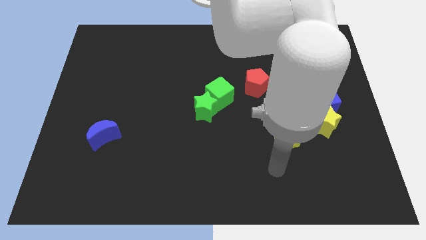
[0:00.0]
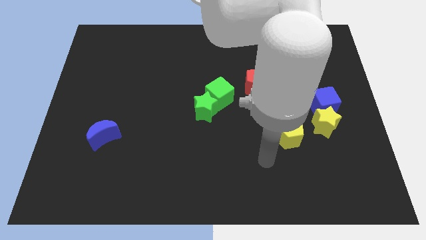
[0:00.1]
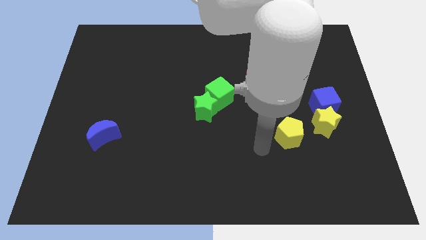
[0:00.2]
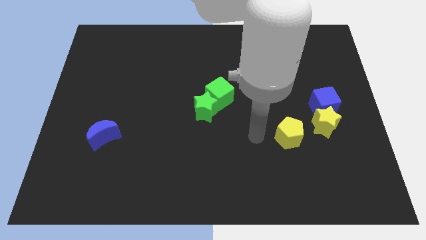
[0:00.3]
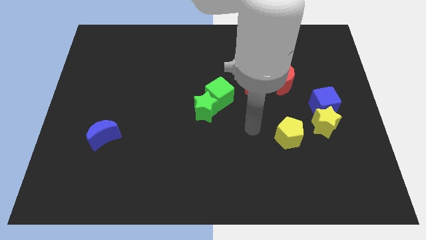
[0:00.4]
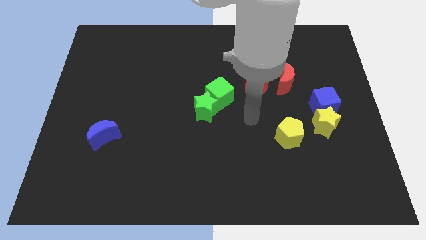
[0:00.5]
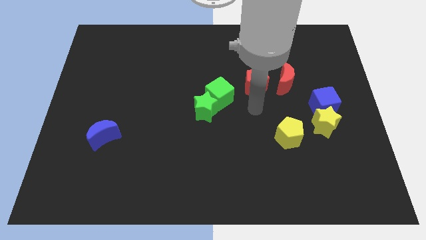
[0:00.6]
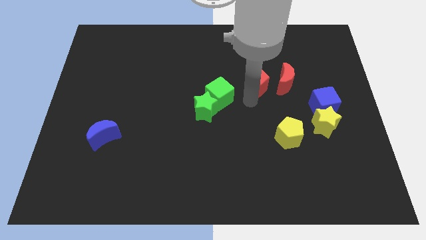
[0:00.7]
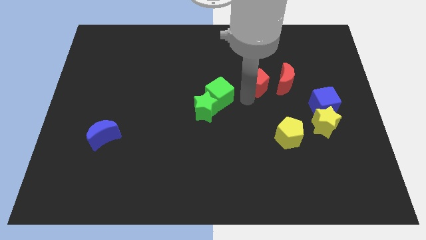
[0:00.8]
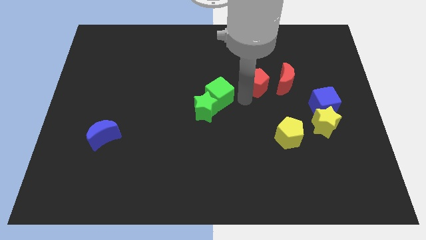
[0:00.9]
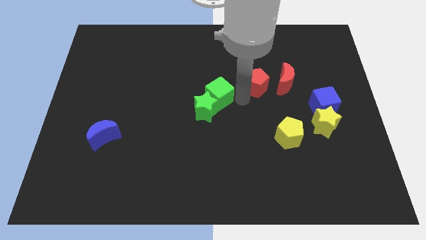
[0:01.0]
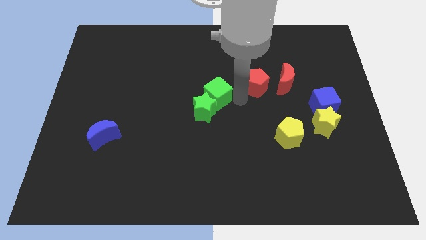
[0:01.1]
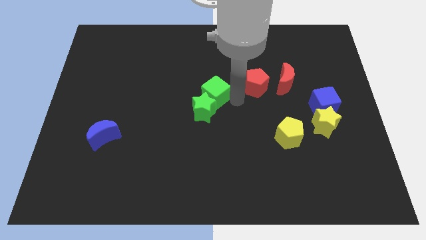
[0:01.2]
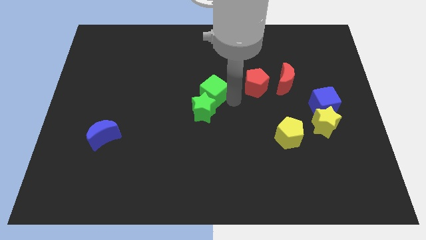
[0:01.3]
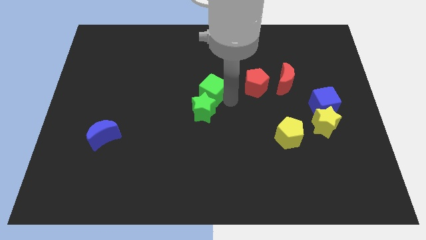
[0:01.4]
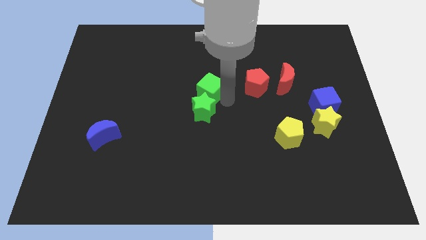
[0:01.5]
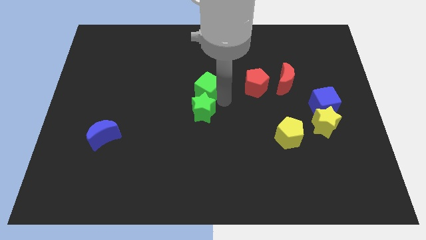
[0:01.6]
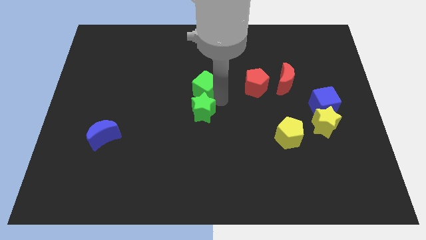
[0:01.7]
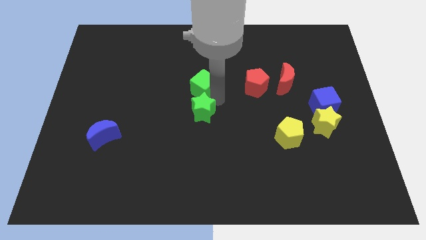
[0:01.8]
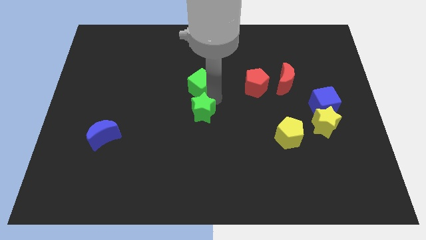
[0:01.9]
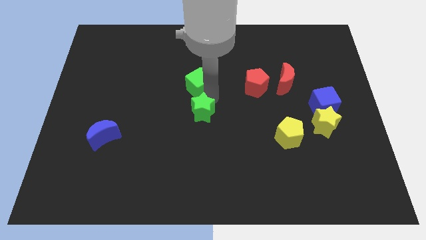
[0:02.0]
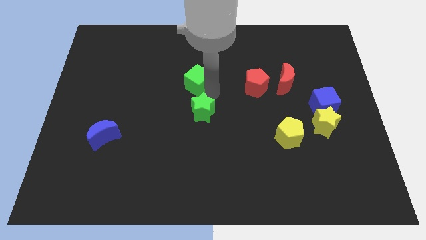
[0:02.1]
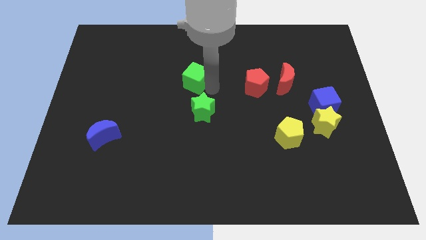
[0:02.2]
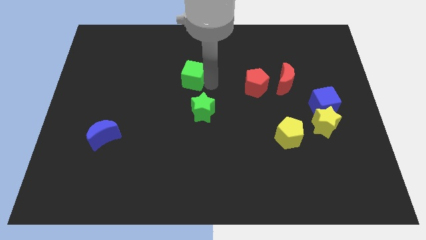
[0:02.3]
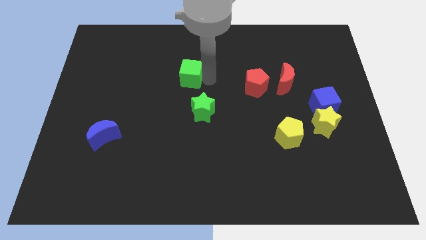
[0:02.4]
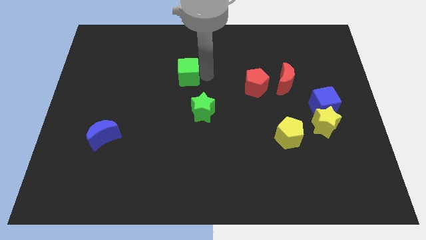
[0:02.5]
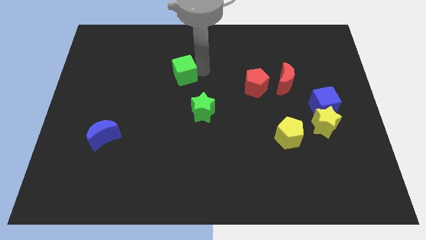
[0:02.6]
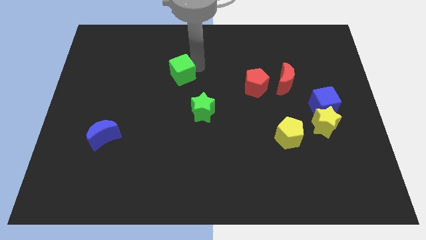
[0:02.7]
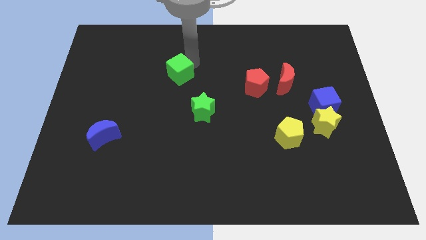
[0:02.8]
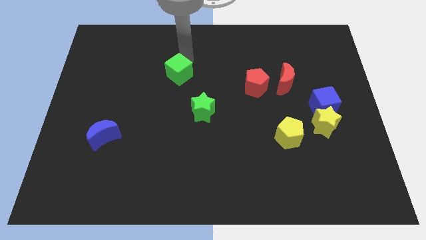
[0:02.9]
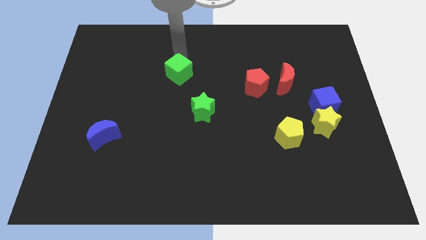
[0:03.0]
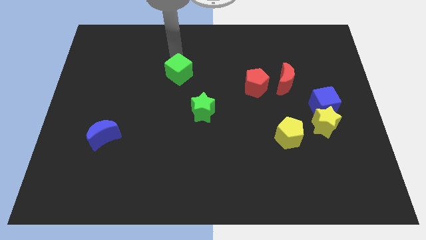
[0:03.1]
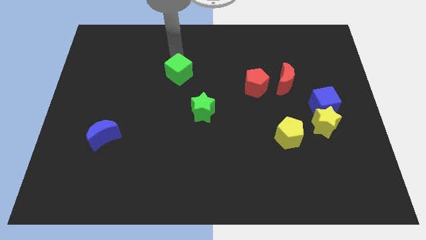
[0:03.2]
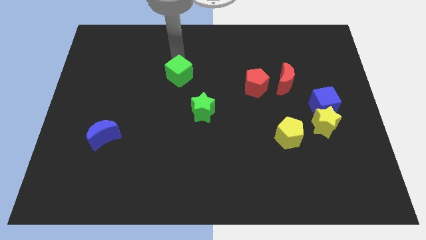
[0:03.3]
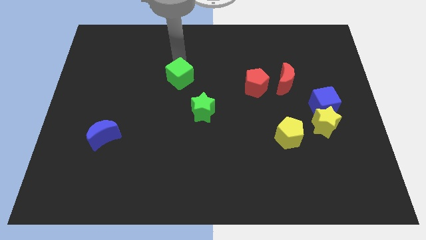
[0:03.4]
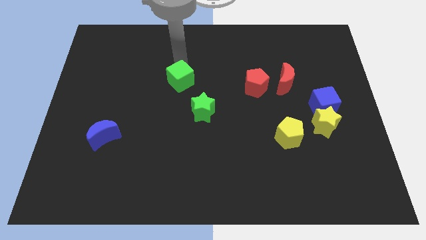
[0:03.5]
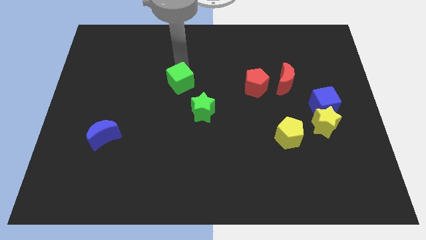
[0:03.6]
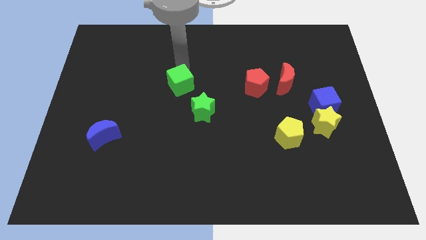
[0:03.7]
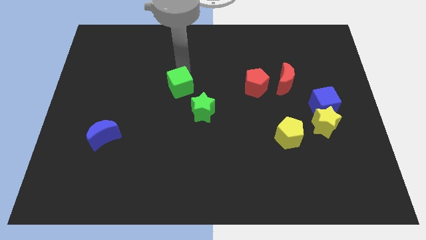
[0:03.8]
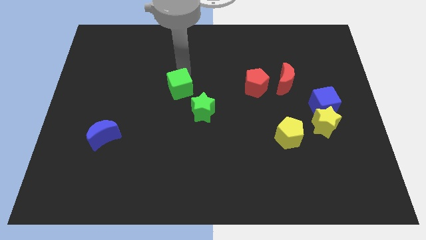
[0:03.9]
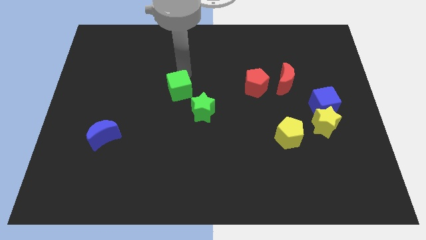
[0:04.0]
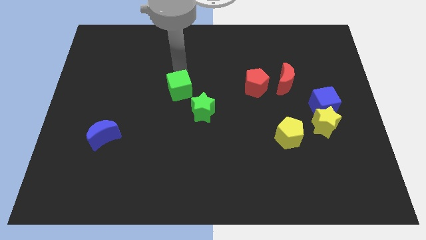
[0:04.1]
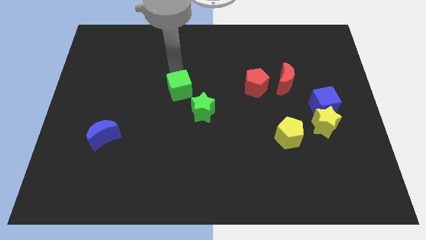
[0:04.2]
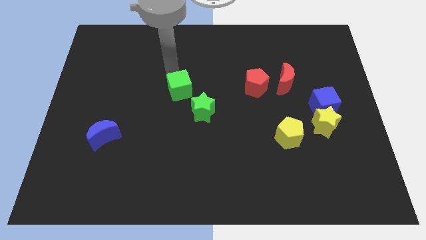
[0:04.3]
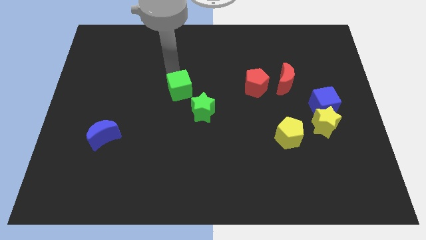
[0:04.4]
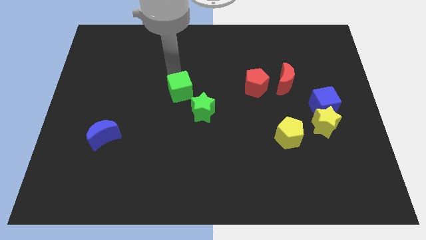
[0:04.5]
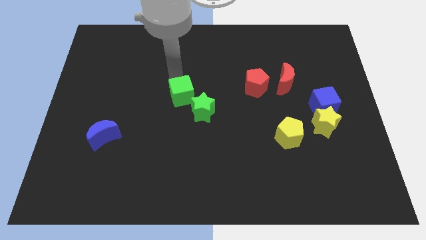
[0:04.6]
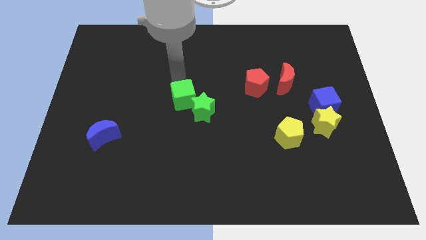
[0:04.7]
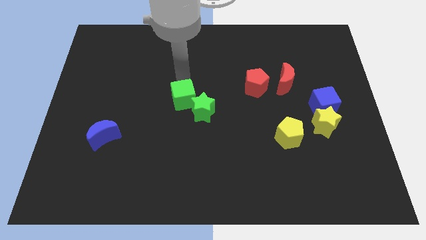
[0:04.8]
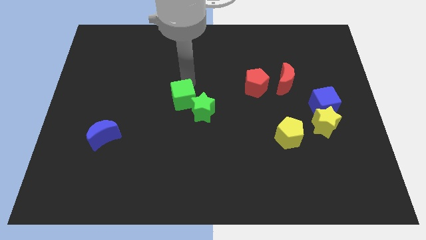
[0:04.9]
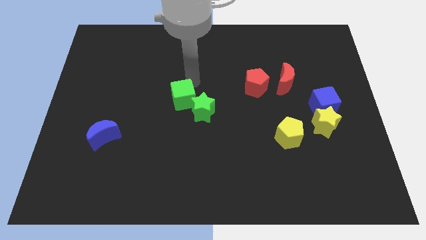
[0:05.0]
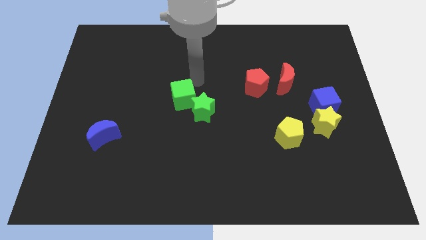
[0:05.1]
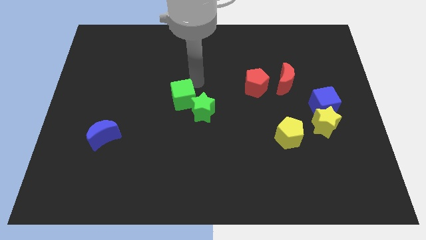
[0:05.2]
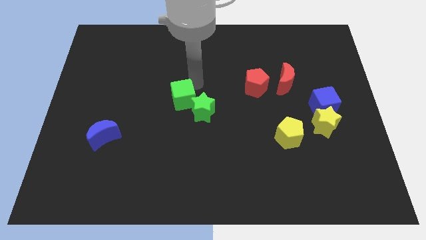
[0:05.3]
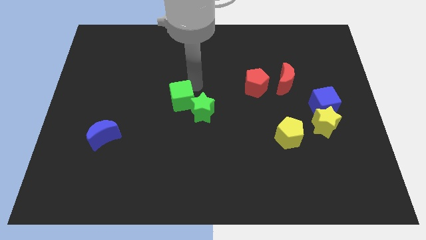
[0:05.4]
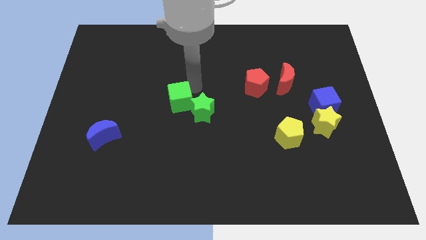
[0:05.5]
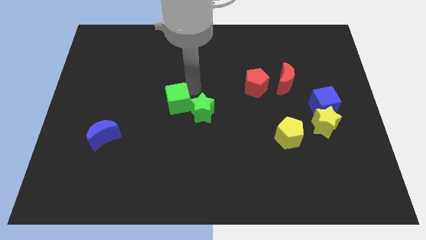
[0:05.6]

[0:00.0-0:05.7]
slightly slide the green cube downwards and left

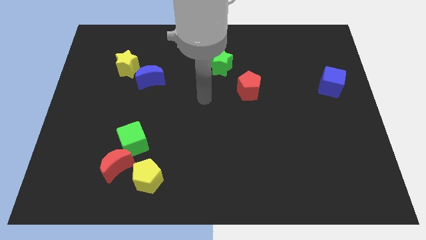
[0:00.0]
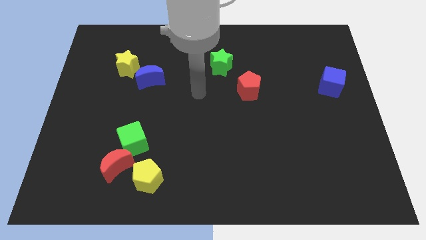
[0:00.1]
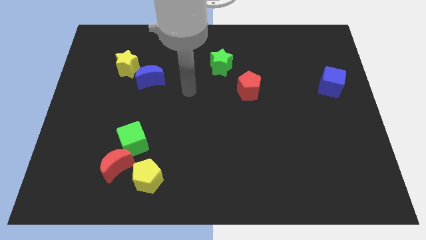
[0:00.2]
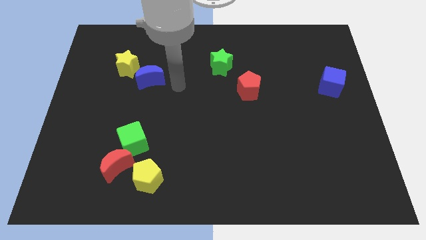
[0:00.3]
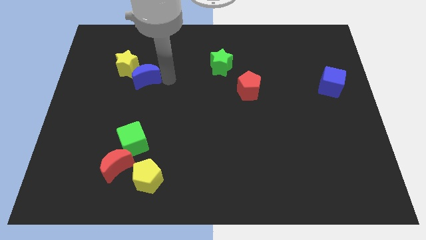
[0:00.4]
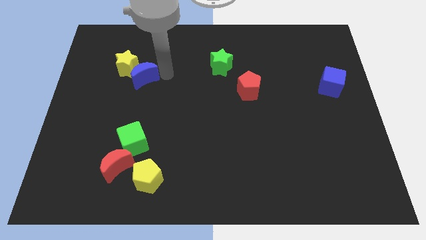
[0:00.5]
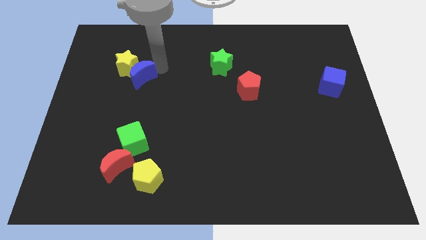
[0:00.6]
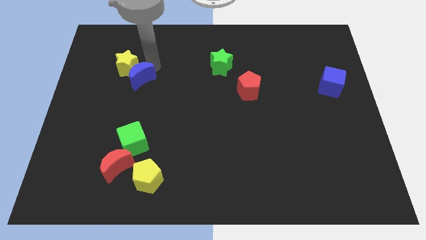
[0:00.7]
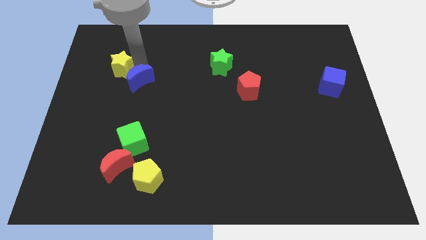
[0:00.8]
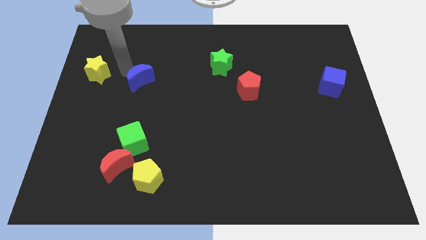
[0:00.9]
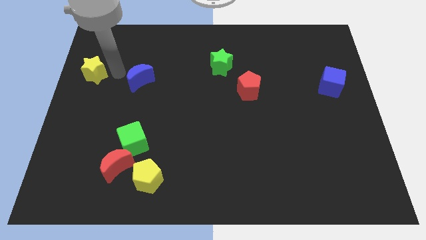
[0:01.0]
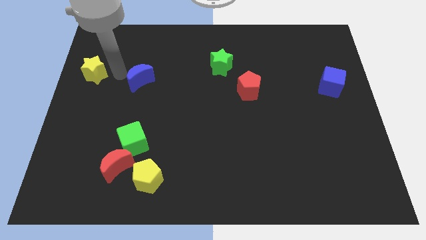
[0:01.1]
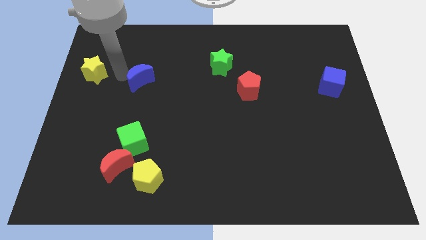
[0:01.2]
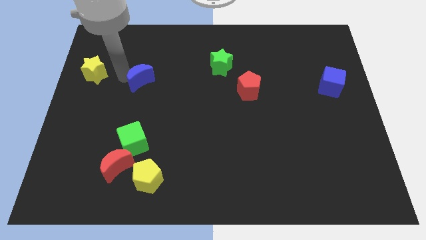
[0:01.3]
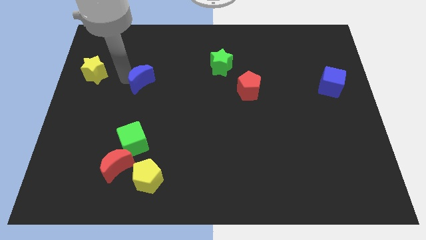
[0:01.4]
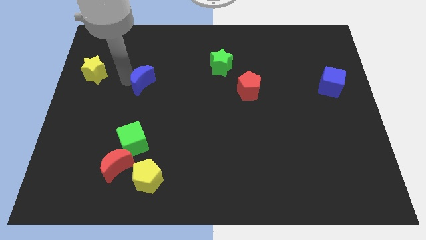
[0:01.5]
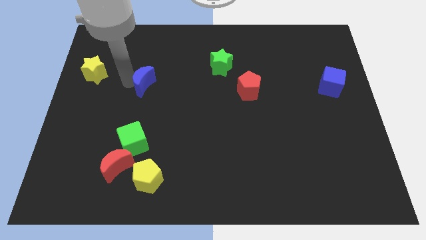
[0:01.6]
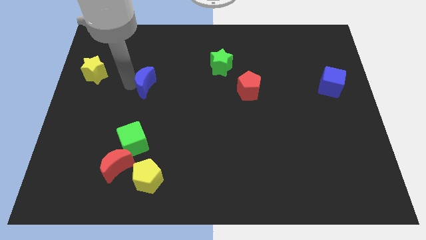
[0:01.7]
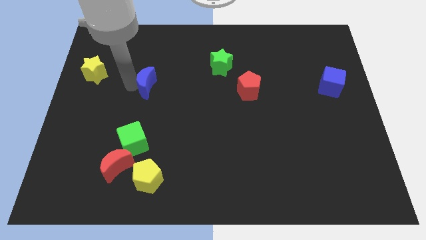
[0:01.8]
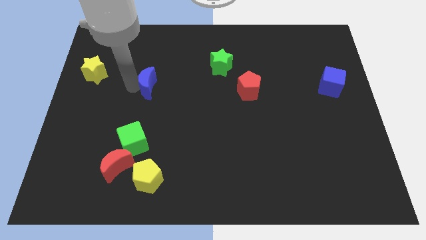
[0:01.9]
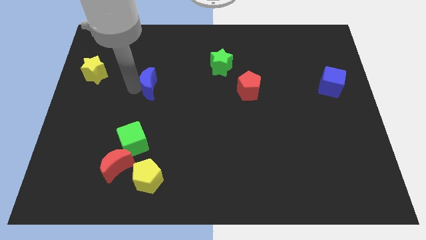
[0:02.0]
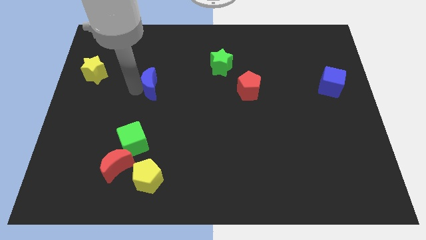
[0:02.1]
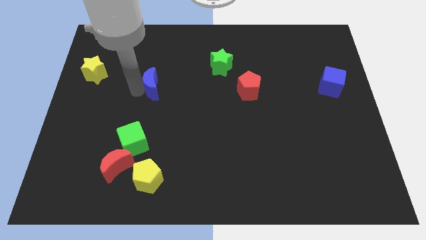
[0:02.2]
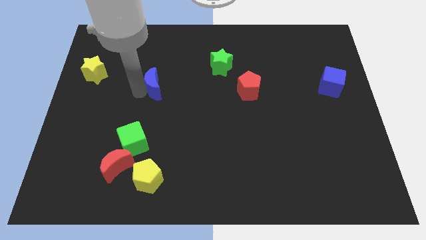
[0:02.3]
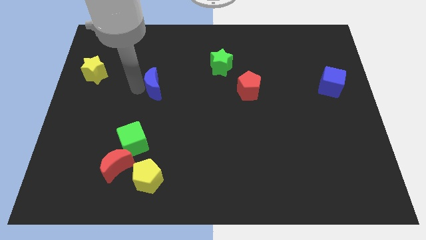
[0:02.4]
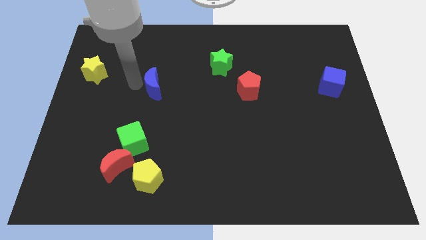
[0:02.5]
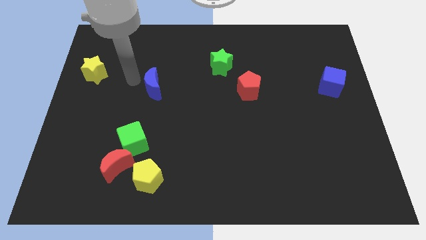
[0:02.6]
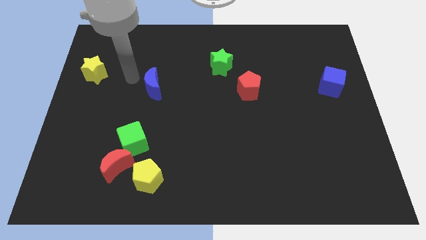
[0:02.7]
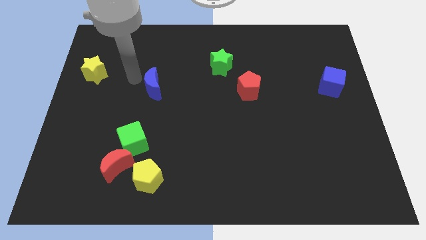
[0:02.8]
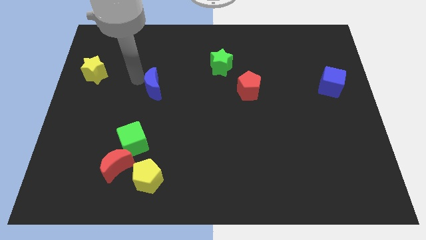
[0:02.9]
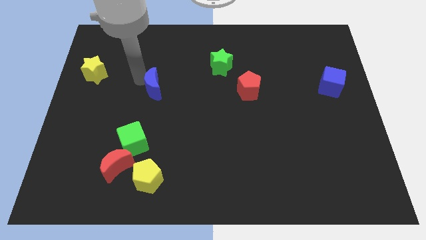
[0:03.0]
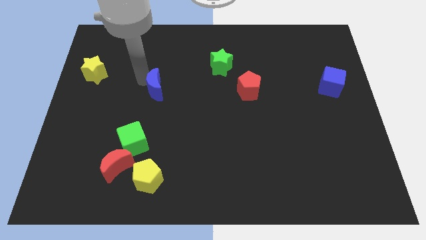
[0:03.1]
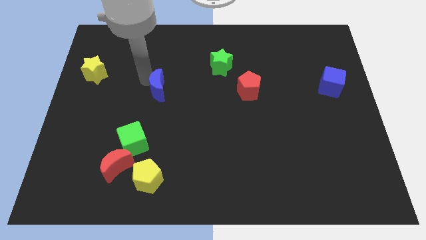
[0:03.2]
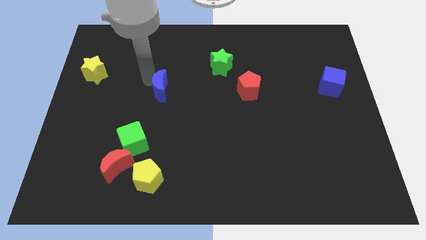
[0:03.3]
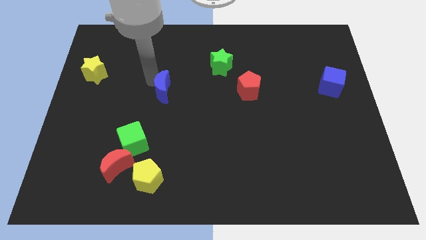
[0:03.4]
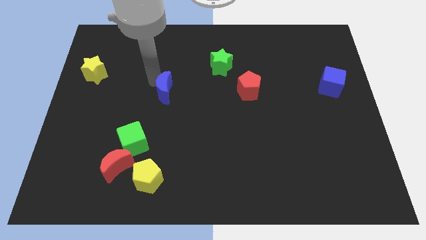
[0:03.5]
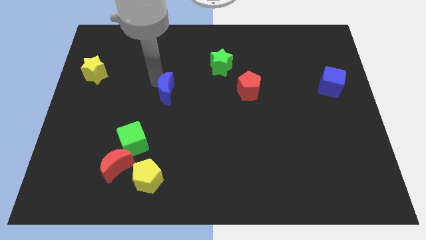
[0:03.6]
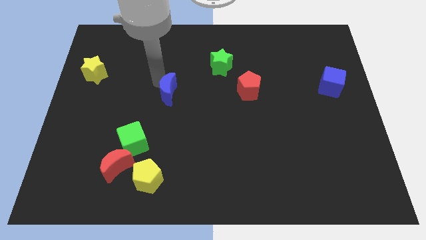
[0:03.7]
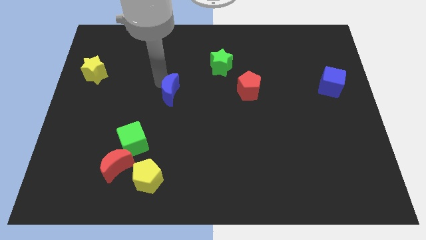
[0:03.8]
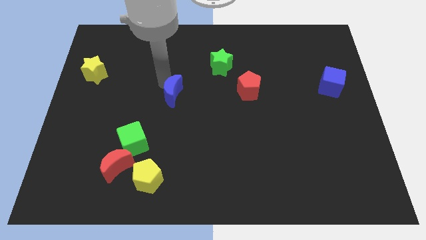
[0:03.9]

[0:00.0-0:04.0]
slide the blue moon a little downwards and to the right diagonally
